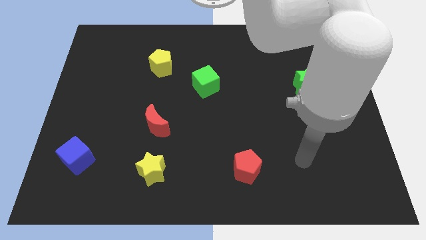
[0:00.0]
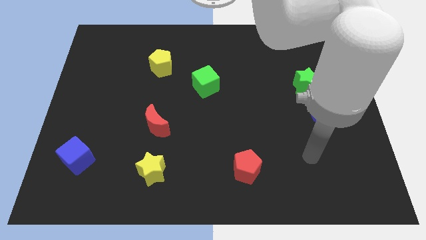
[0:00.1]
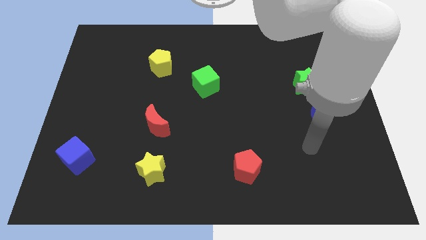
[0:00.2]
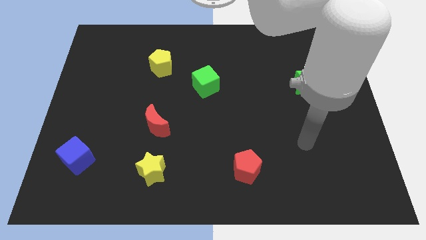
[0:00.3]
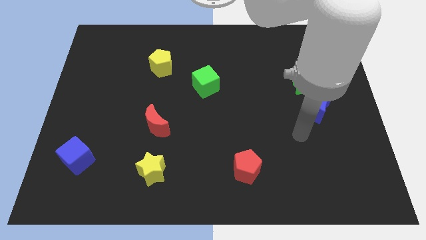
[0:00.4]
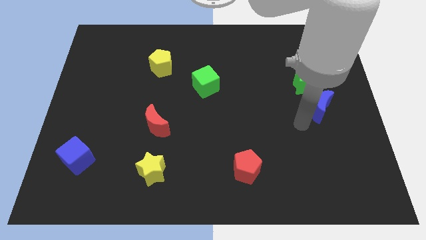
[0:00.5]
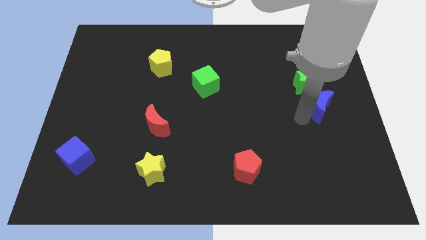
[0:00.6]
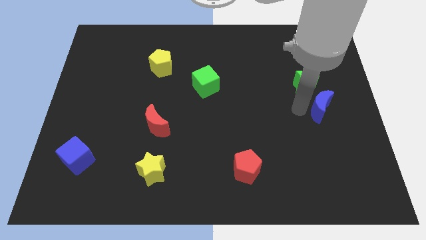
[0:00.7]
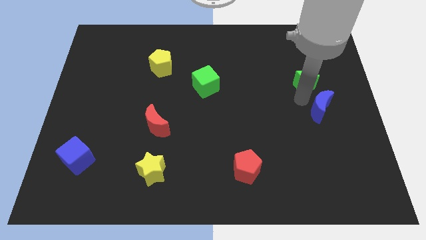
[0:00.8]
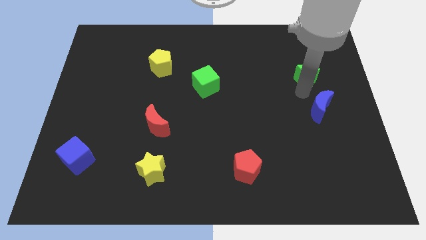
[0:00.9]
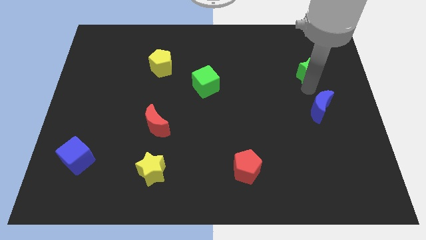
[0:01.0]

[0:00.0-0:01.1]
pull the blue moon apart from the green star

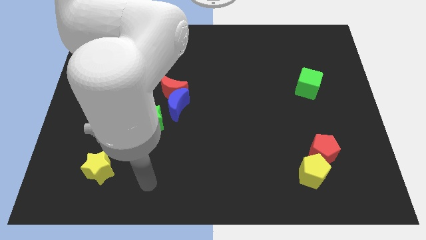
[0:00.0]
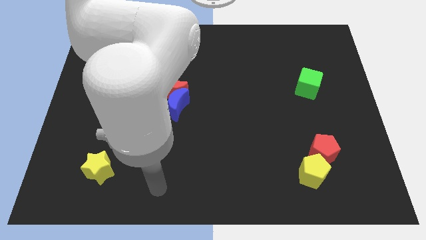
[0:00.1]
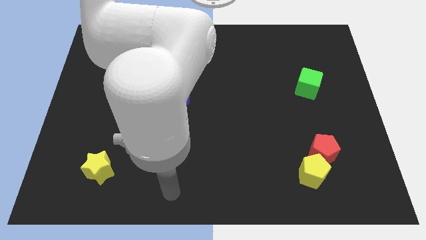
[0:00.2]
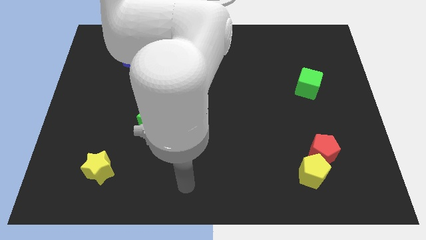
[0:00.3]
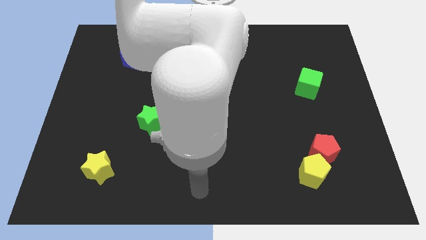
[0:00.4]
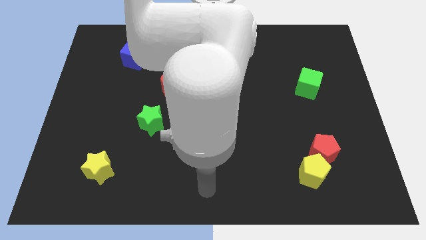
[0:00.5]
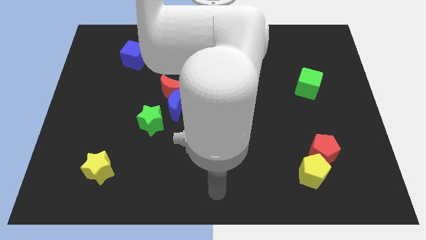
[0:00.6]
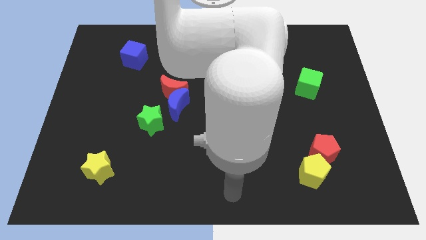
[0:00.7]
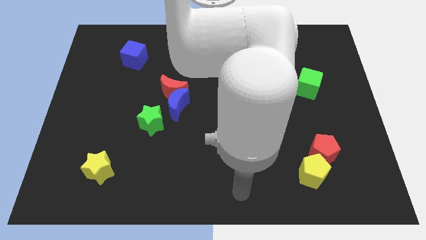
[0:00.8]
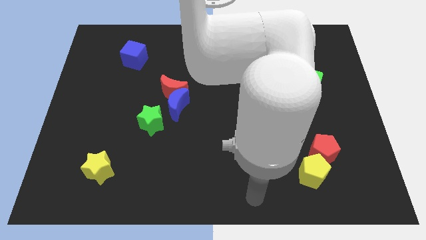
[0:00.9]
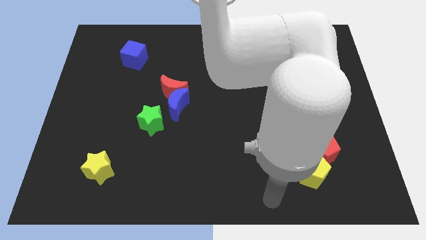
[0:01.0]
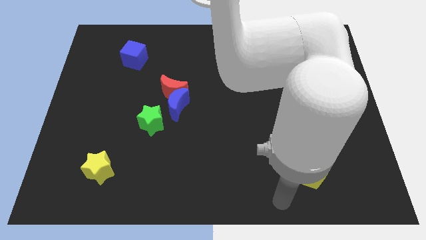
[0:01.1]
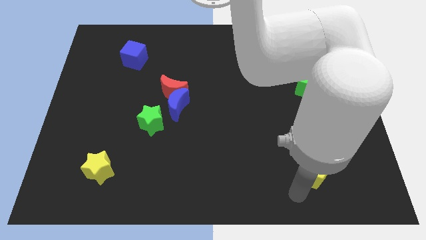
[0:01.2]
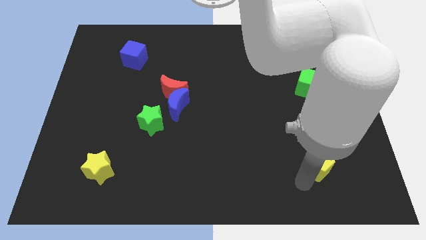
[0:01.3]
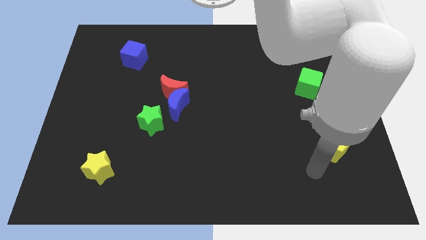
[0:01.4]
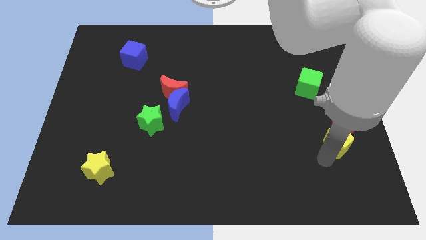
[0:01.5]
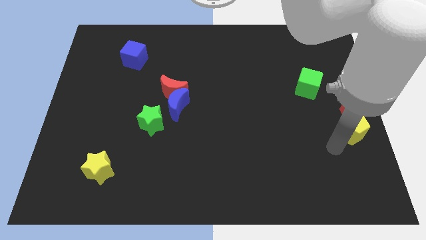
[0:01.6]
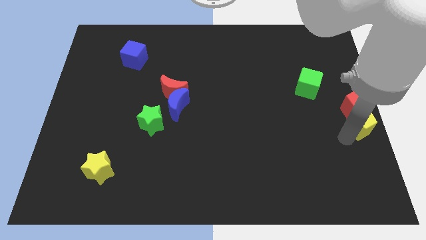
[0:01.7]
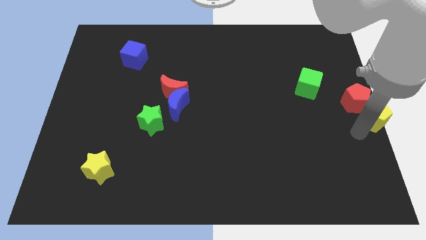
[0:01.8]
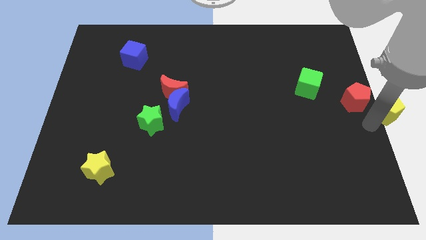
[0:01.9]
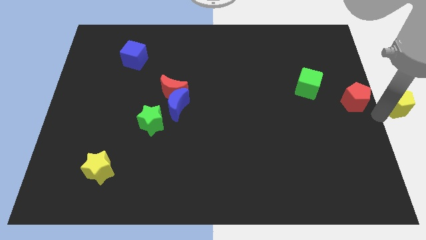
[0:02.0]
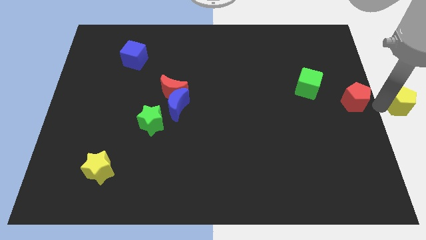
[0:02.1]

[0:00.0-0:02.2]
separate the red pentagon from the yellow pentagon

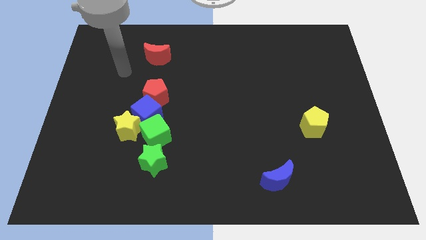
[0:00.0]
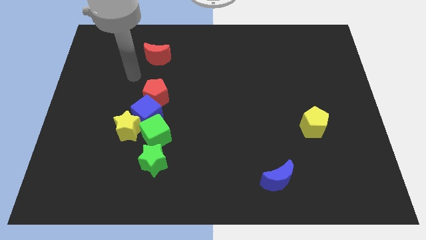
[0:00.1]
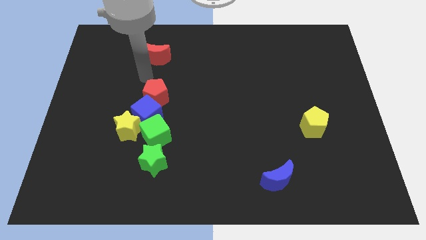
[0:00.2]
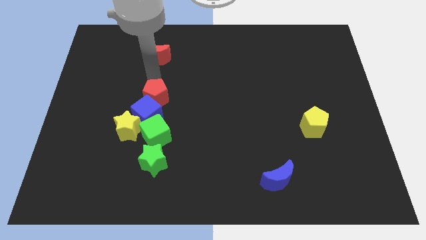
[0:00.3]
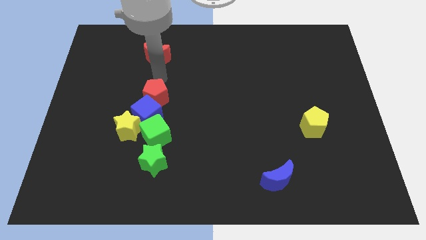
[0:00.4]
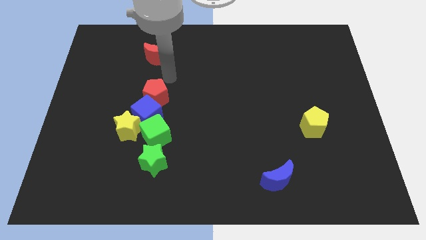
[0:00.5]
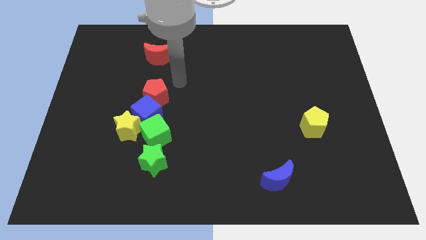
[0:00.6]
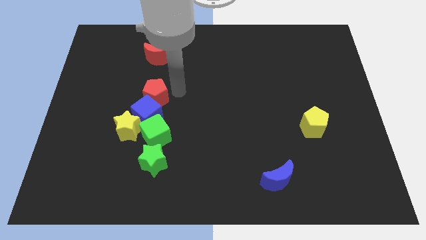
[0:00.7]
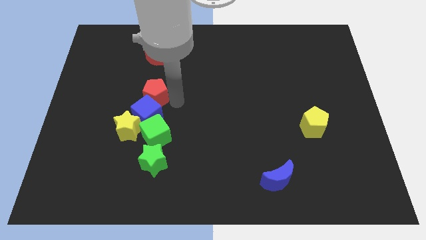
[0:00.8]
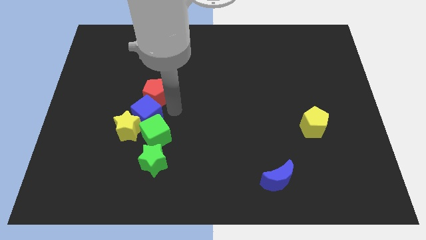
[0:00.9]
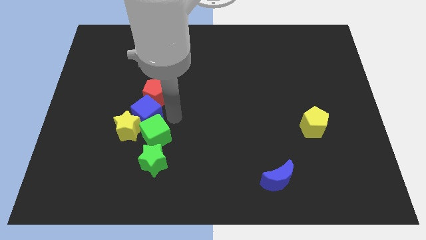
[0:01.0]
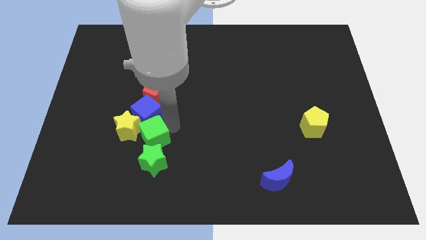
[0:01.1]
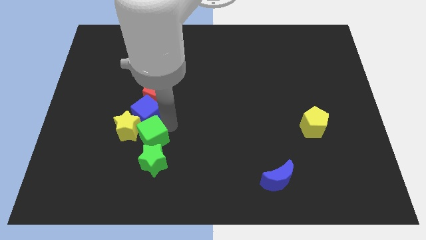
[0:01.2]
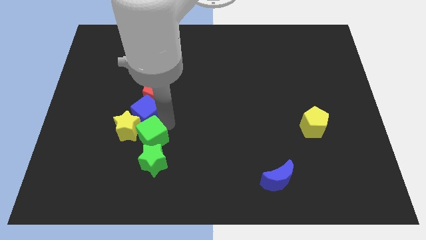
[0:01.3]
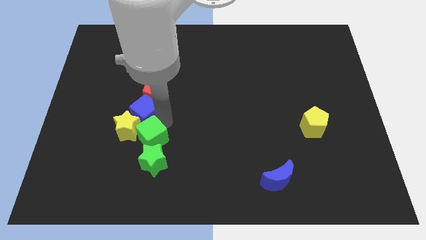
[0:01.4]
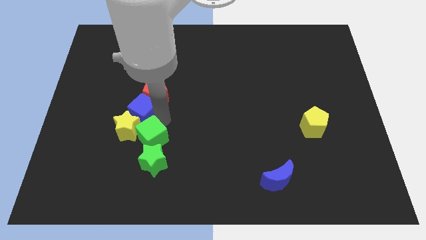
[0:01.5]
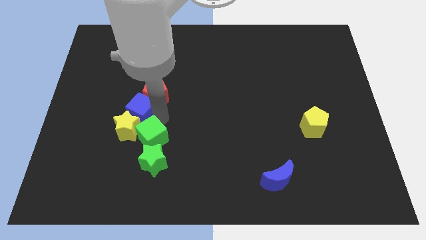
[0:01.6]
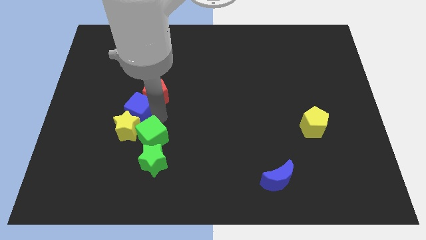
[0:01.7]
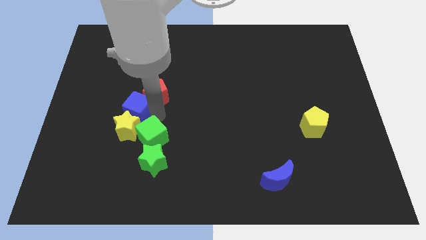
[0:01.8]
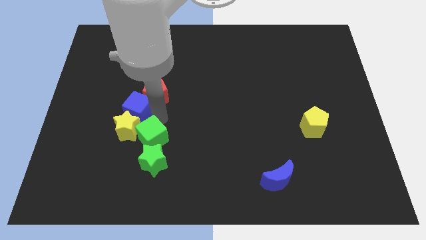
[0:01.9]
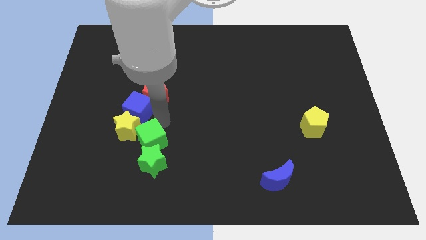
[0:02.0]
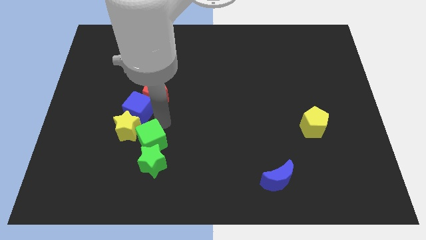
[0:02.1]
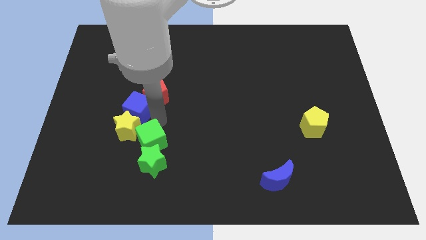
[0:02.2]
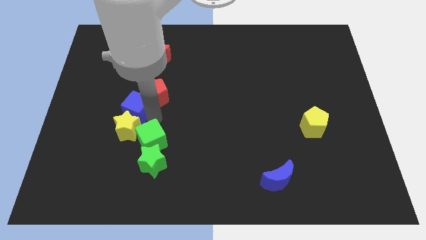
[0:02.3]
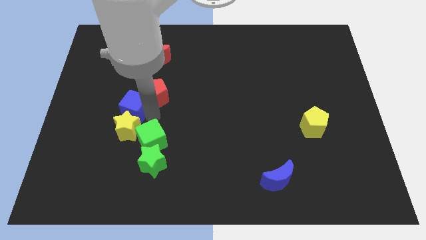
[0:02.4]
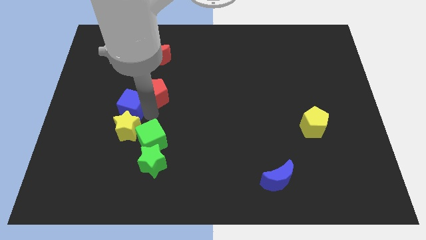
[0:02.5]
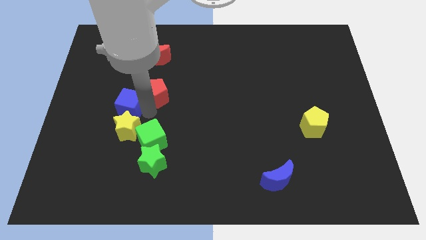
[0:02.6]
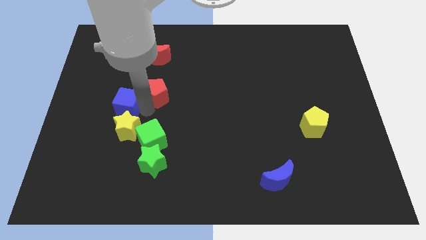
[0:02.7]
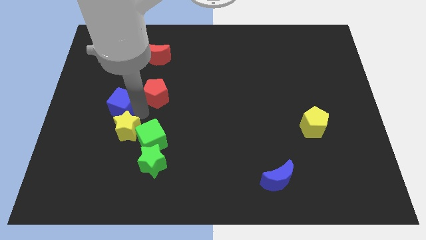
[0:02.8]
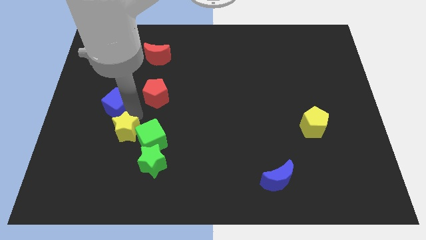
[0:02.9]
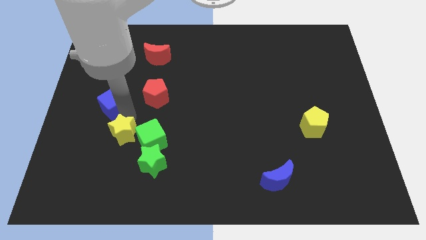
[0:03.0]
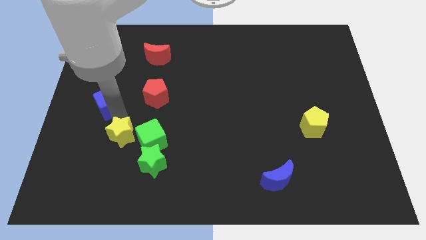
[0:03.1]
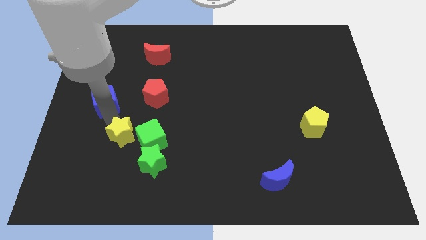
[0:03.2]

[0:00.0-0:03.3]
pull the blue cube apart from the yellow star, green cube, and red pentagon

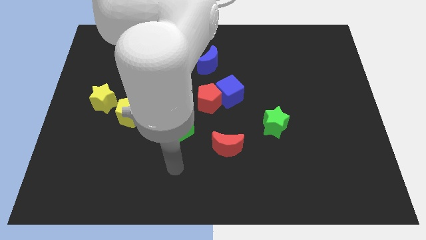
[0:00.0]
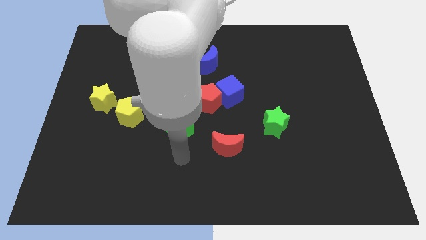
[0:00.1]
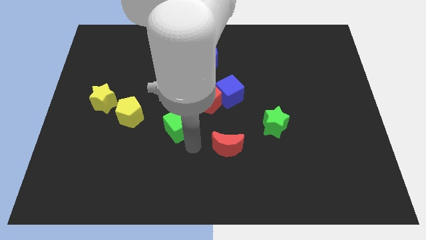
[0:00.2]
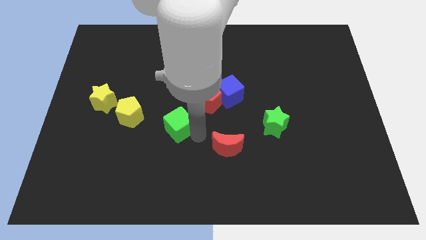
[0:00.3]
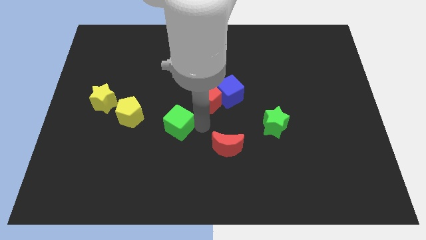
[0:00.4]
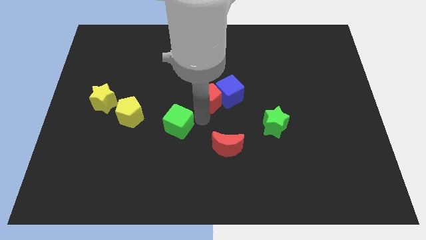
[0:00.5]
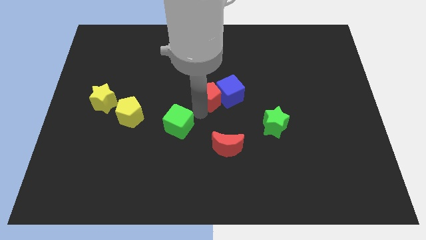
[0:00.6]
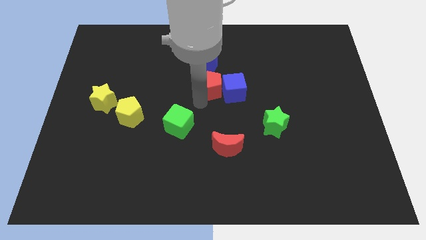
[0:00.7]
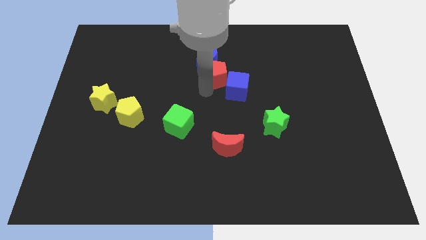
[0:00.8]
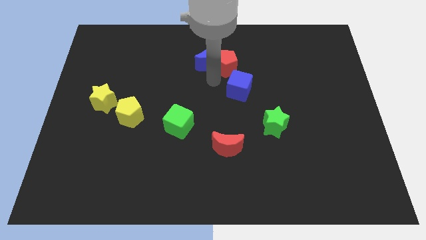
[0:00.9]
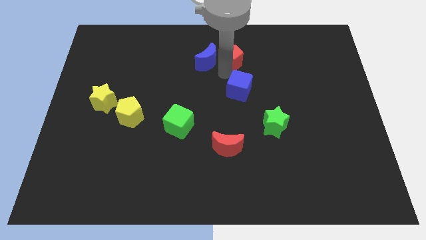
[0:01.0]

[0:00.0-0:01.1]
move the blue cube away from the red pentagon

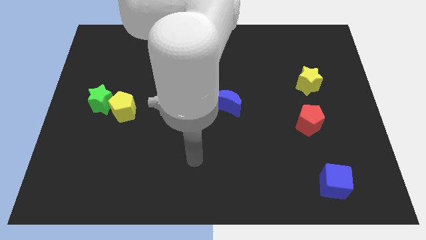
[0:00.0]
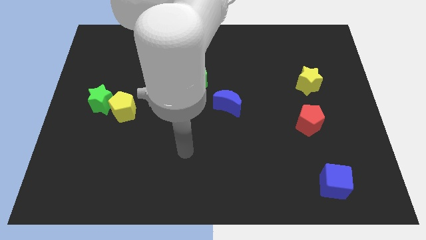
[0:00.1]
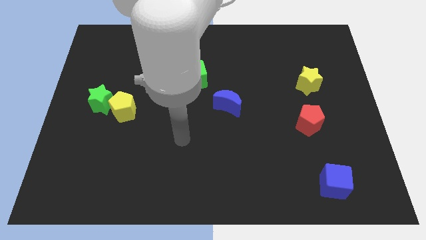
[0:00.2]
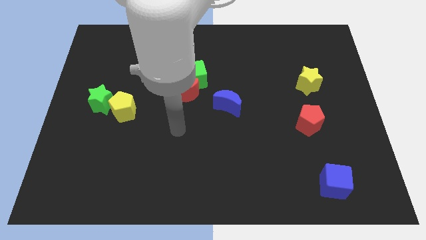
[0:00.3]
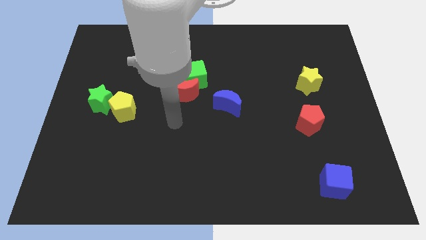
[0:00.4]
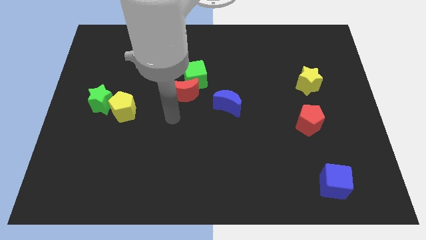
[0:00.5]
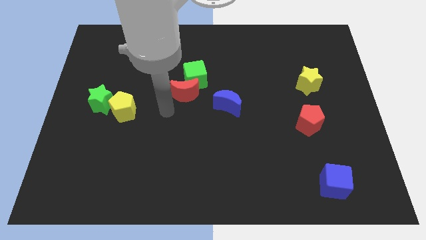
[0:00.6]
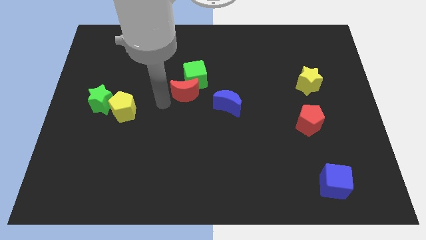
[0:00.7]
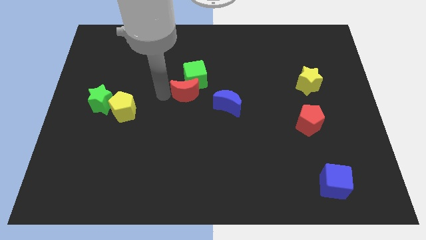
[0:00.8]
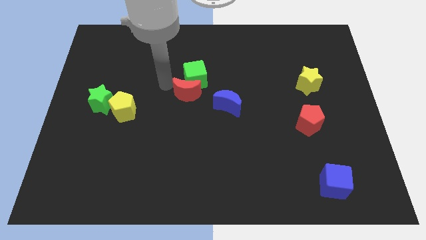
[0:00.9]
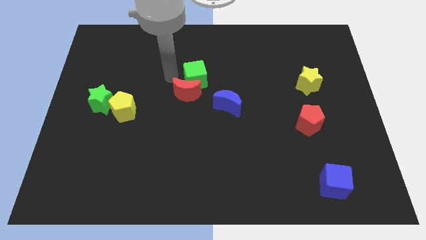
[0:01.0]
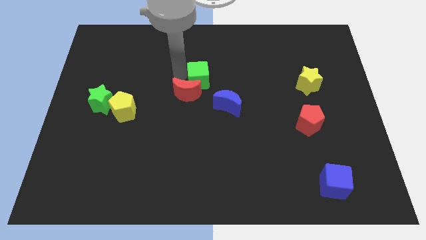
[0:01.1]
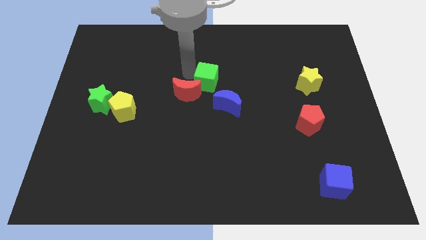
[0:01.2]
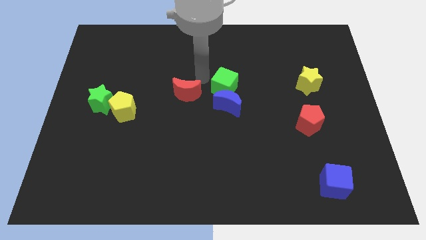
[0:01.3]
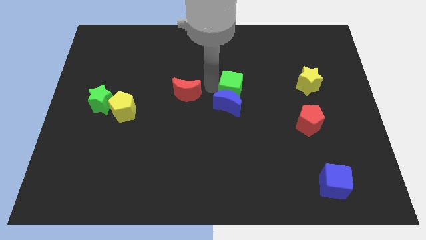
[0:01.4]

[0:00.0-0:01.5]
move the red moon away from the green cube

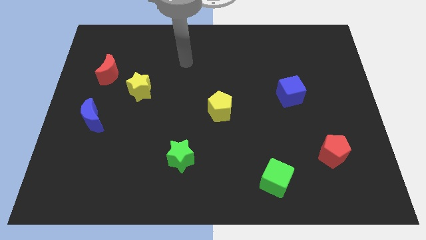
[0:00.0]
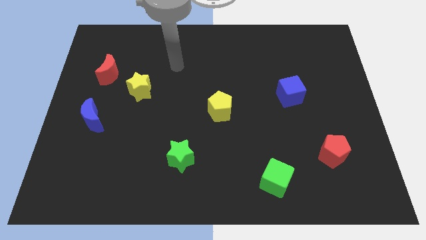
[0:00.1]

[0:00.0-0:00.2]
move the red moon away from the yellow star
